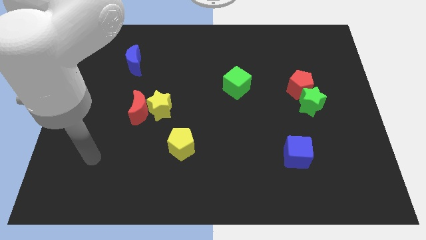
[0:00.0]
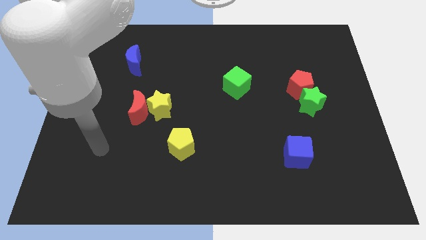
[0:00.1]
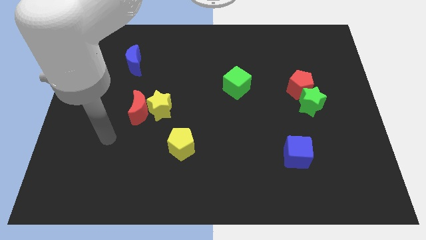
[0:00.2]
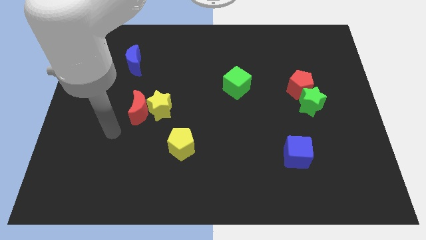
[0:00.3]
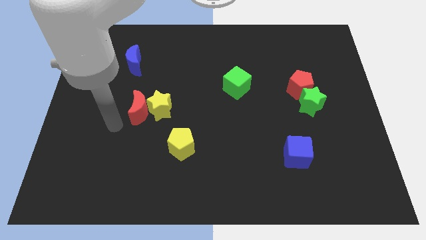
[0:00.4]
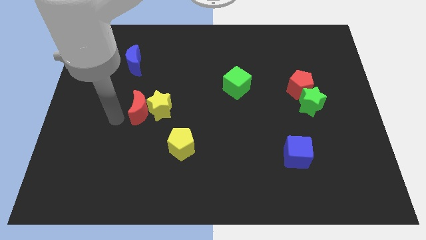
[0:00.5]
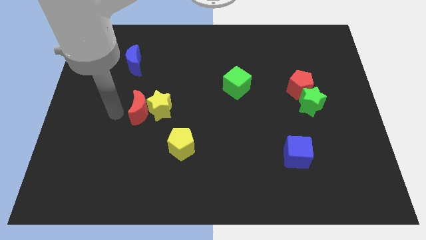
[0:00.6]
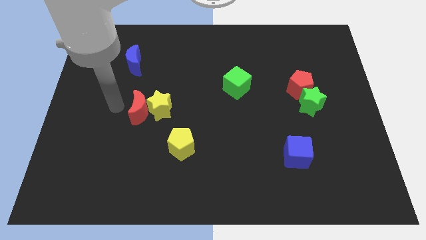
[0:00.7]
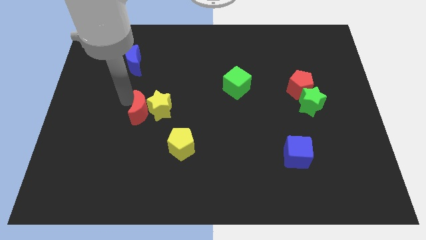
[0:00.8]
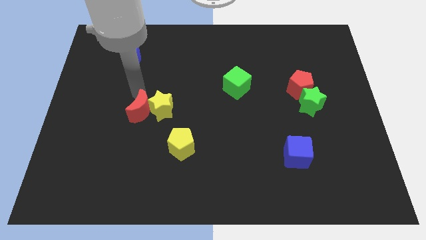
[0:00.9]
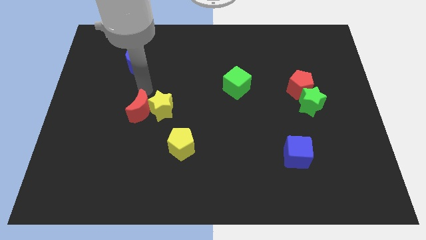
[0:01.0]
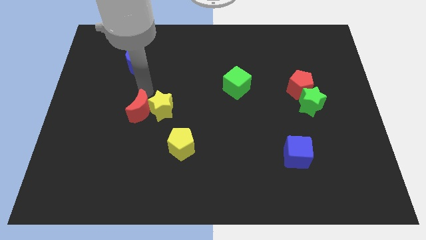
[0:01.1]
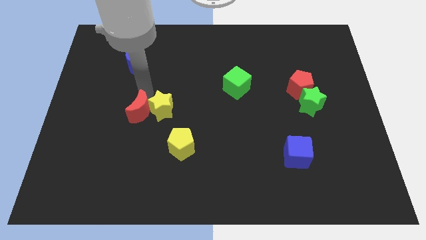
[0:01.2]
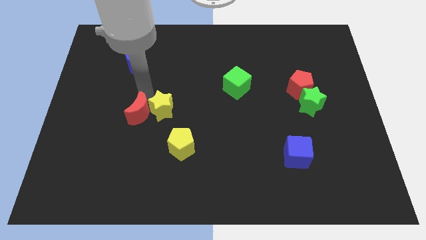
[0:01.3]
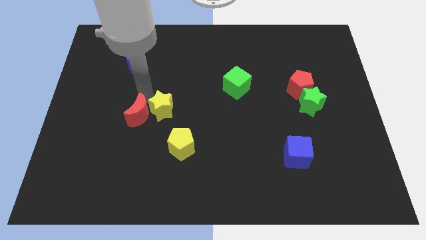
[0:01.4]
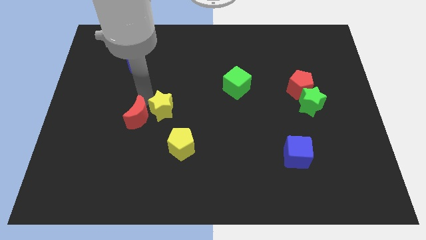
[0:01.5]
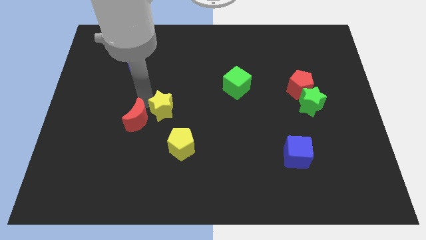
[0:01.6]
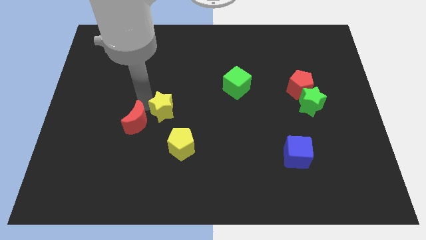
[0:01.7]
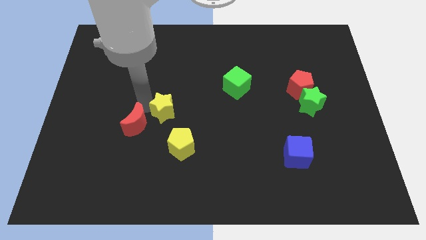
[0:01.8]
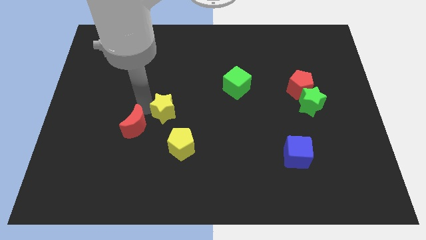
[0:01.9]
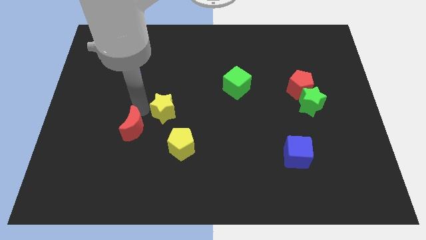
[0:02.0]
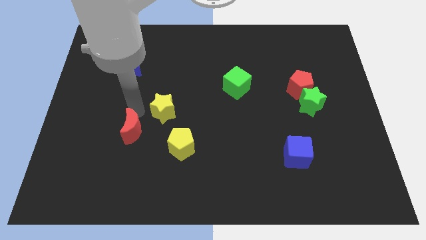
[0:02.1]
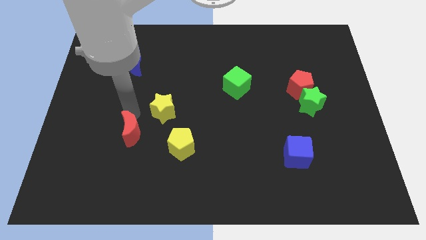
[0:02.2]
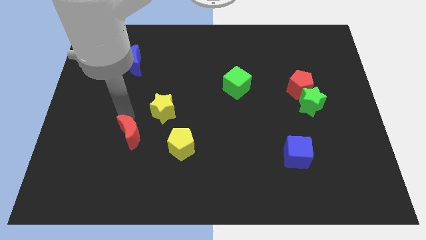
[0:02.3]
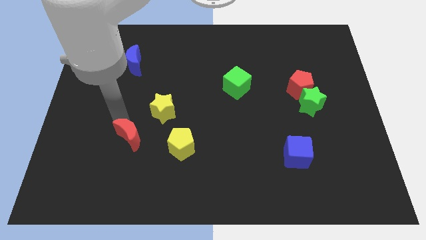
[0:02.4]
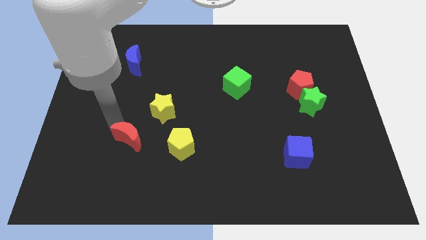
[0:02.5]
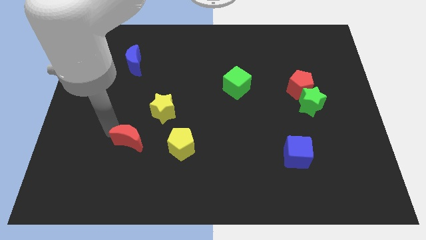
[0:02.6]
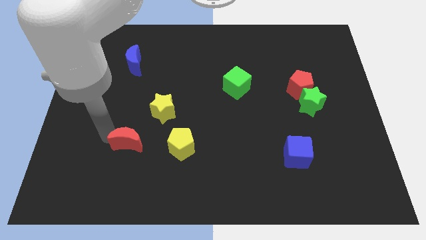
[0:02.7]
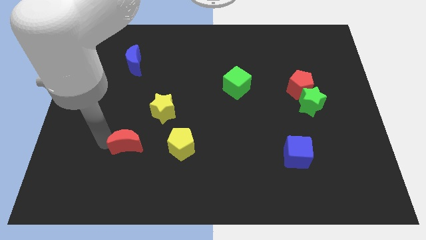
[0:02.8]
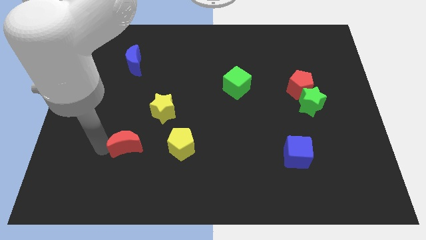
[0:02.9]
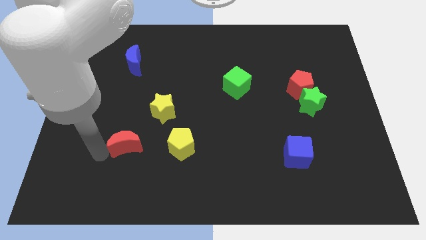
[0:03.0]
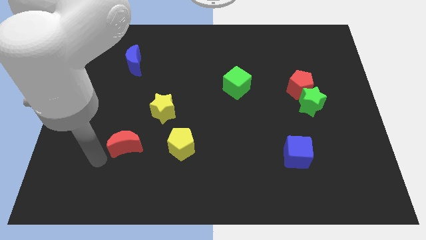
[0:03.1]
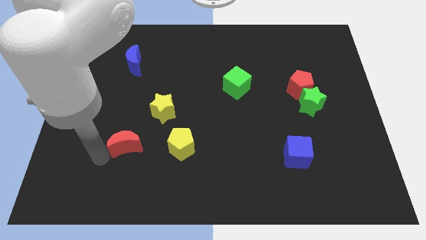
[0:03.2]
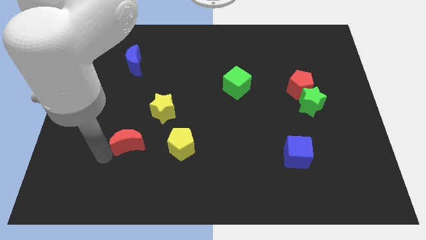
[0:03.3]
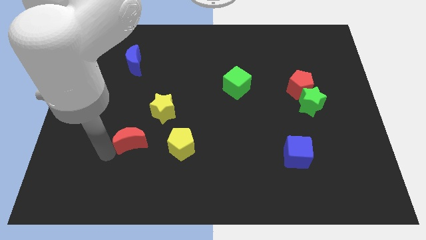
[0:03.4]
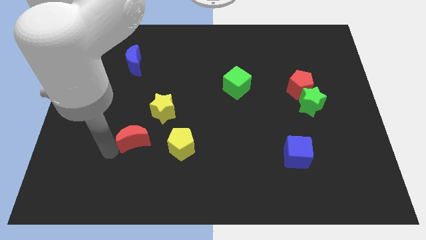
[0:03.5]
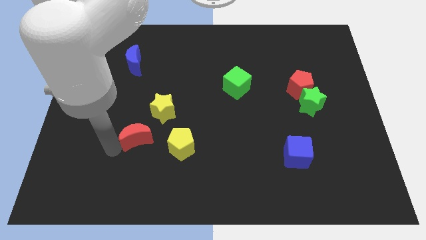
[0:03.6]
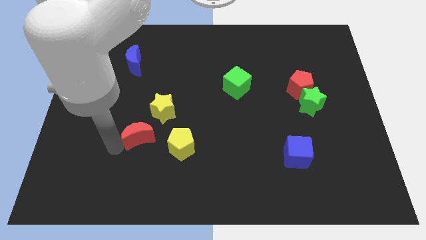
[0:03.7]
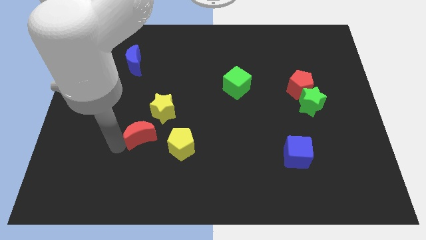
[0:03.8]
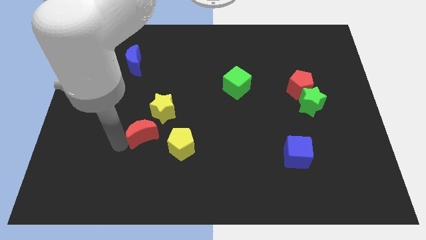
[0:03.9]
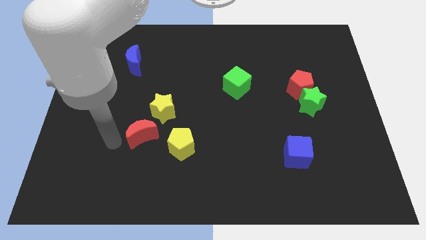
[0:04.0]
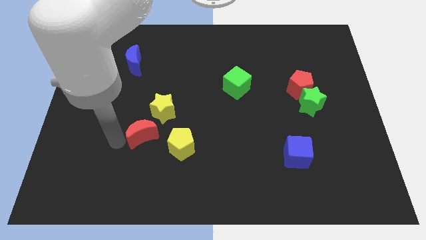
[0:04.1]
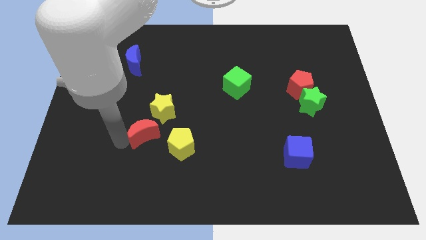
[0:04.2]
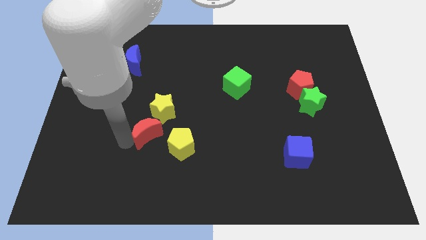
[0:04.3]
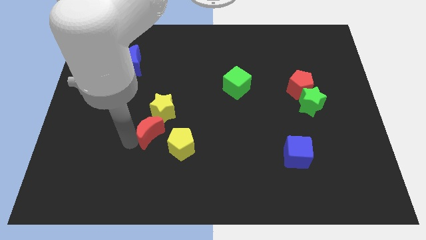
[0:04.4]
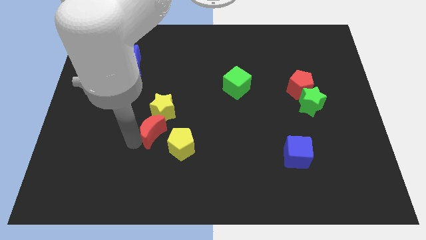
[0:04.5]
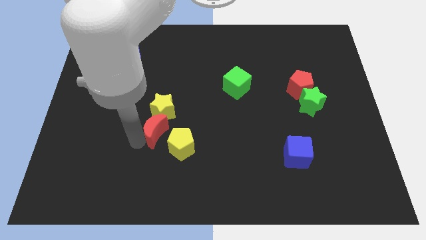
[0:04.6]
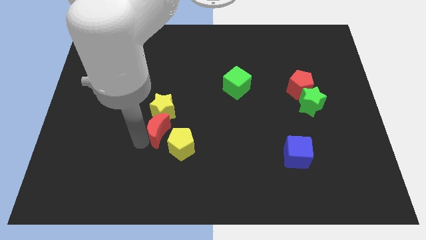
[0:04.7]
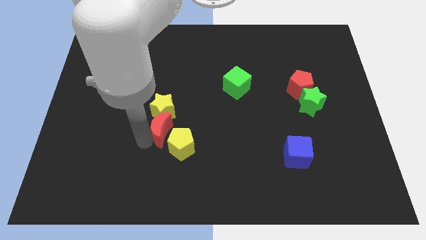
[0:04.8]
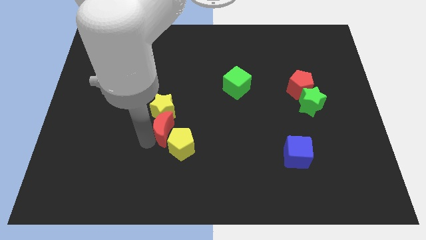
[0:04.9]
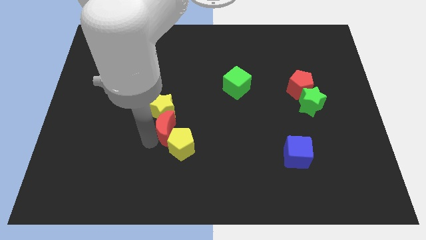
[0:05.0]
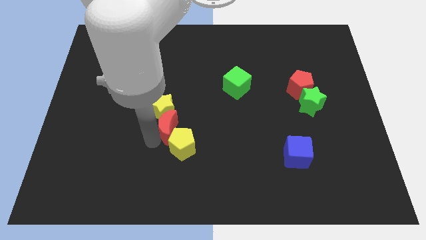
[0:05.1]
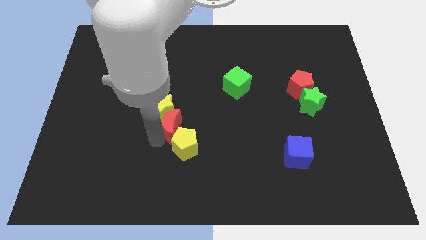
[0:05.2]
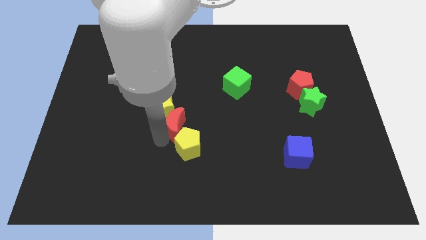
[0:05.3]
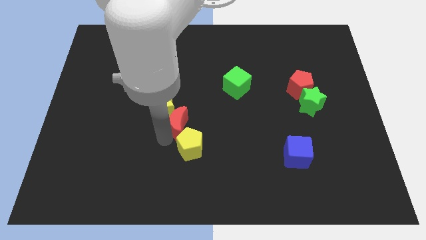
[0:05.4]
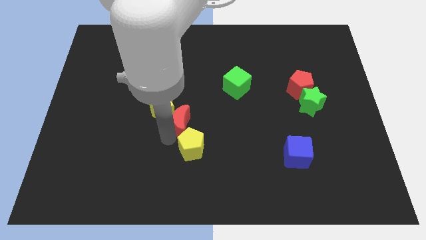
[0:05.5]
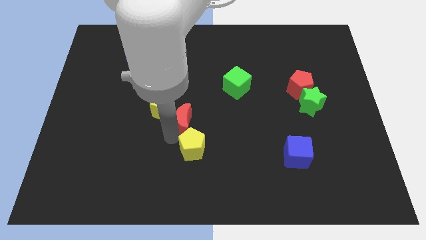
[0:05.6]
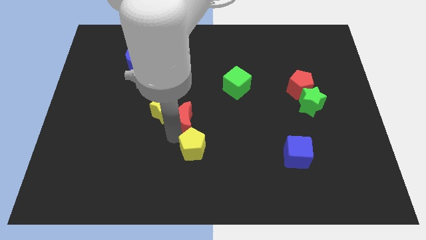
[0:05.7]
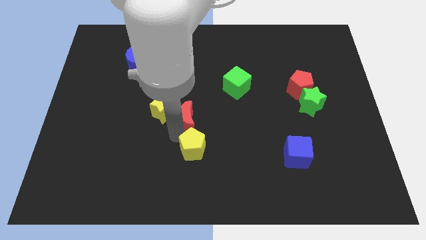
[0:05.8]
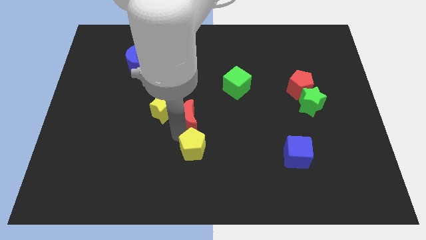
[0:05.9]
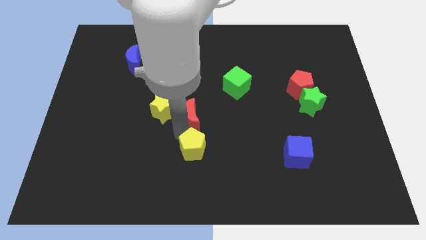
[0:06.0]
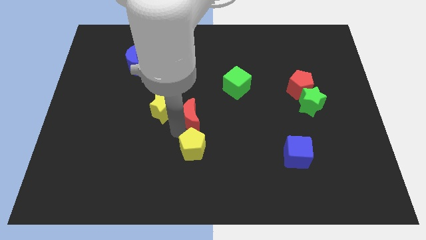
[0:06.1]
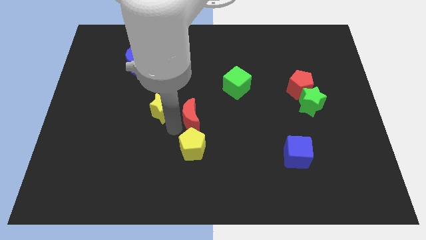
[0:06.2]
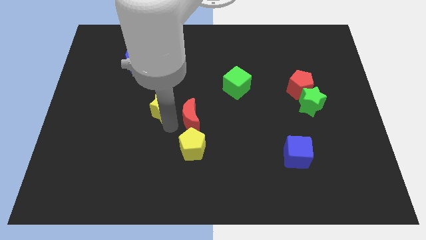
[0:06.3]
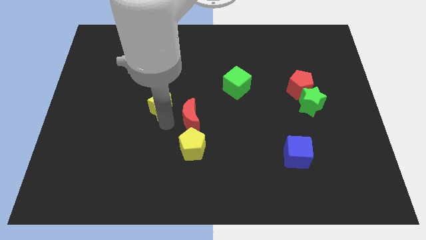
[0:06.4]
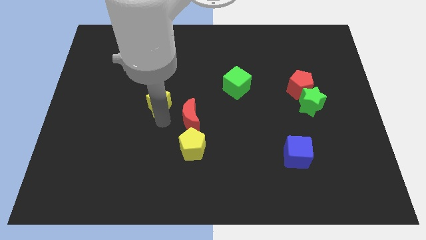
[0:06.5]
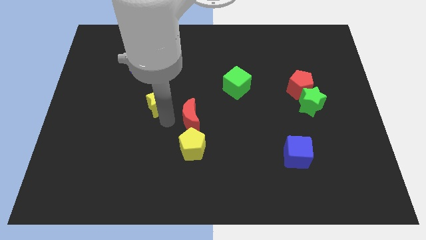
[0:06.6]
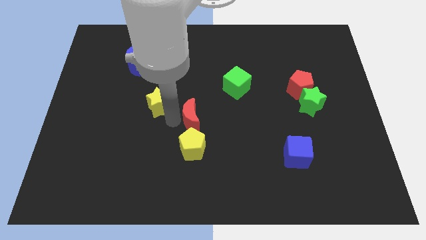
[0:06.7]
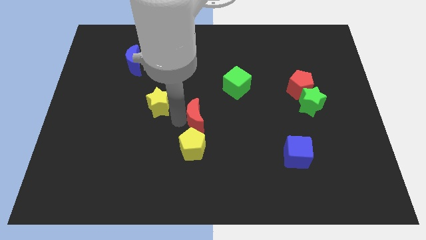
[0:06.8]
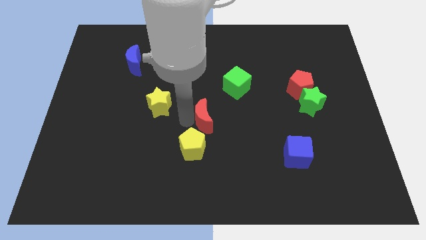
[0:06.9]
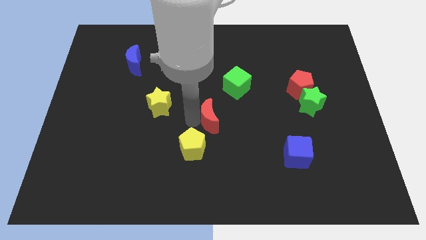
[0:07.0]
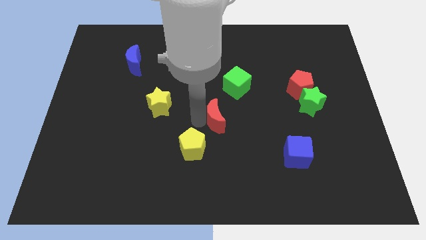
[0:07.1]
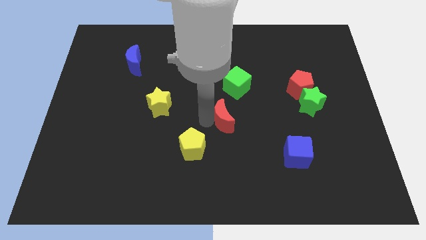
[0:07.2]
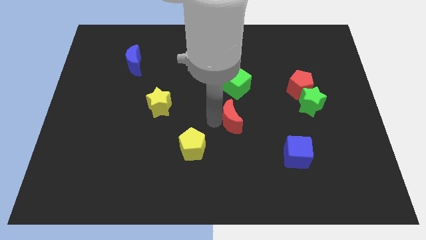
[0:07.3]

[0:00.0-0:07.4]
push the red moon right

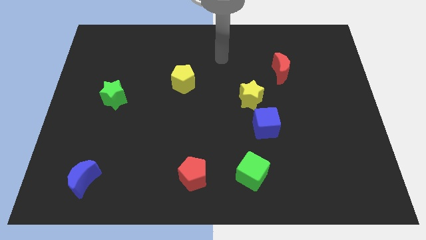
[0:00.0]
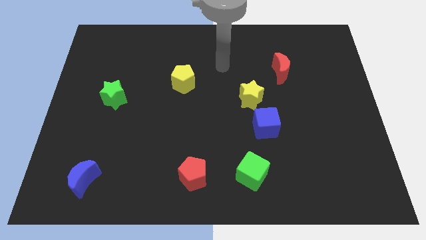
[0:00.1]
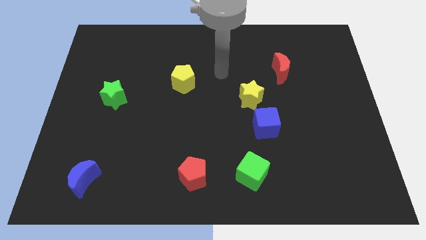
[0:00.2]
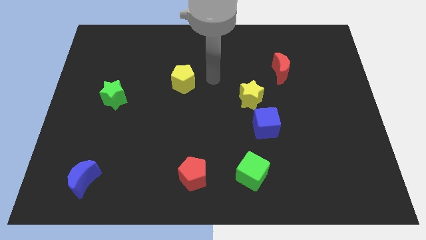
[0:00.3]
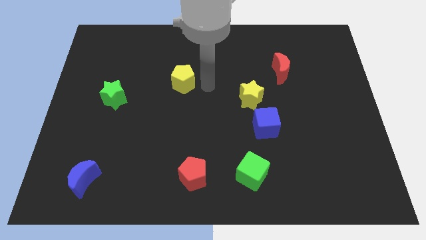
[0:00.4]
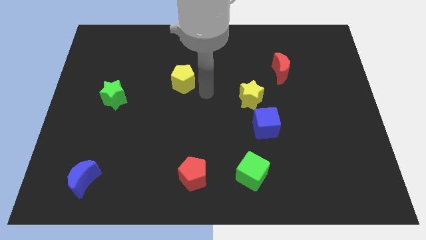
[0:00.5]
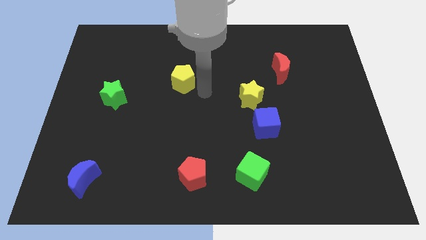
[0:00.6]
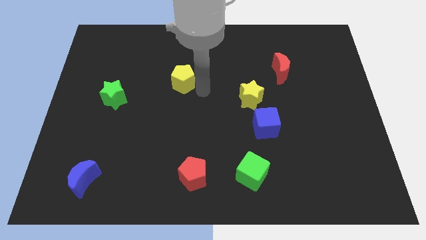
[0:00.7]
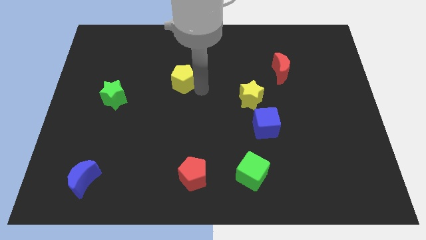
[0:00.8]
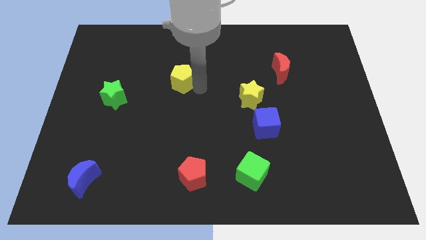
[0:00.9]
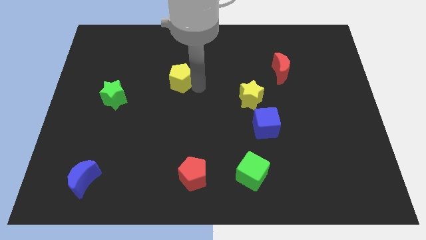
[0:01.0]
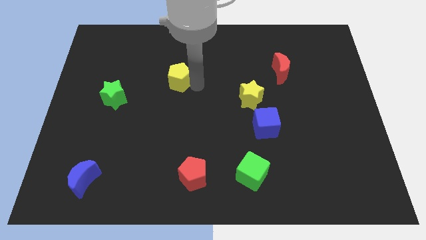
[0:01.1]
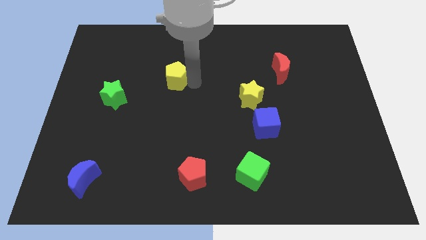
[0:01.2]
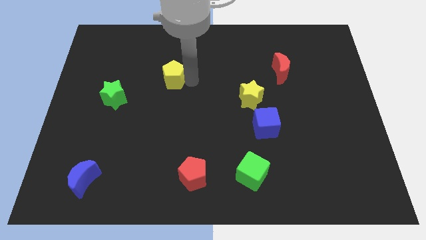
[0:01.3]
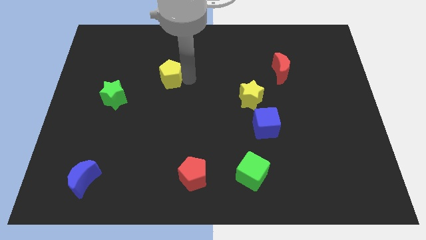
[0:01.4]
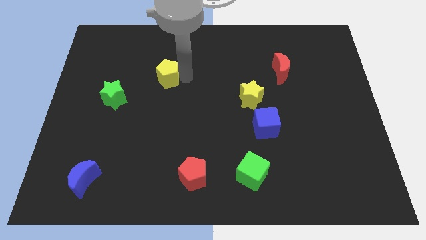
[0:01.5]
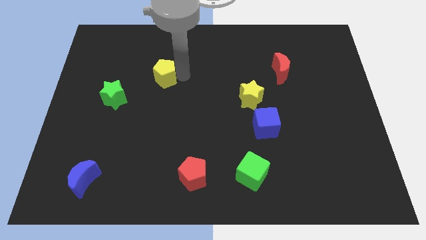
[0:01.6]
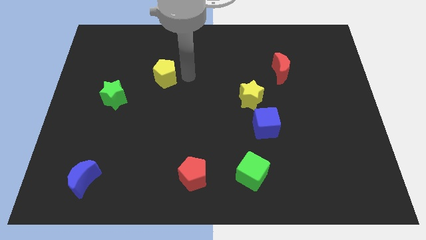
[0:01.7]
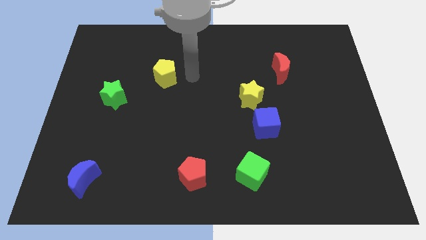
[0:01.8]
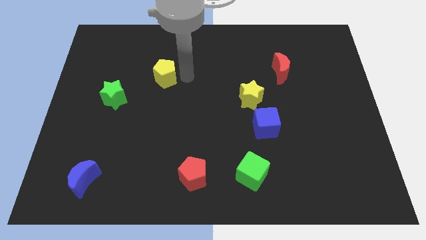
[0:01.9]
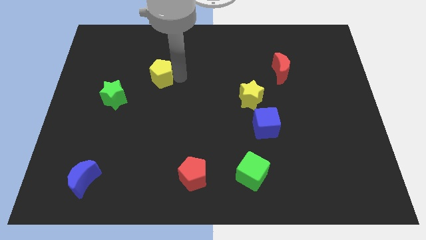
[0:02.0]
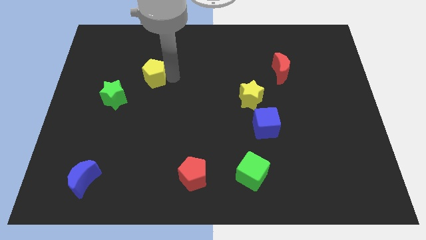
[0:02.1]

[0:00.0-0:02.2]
slightly slide the yellow pentagon to the left
